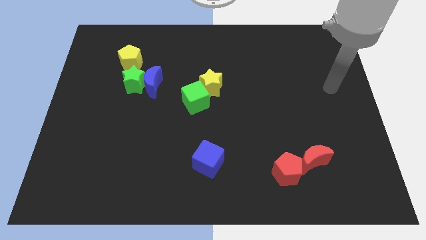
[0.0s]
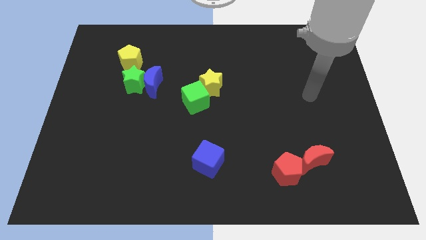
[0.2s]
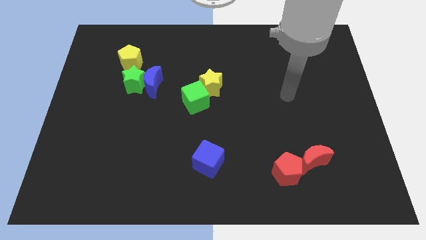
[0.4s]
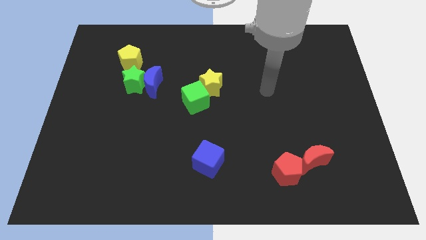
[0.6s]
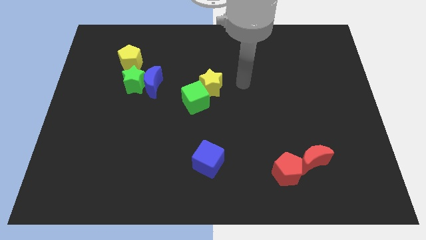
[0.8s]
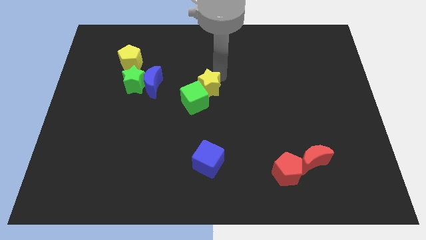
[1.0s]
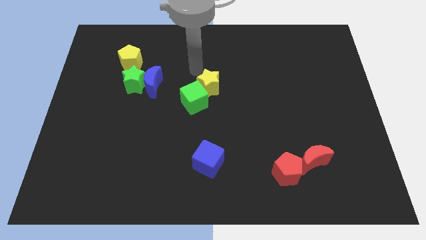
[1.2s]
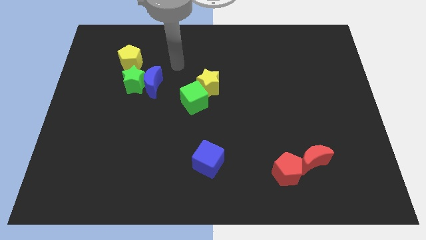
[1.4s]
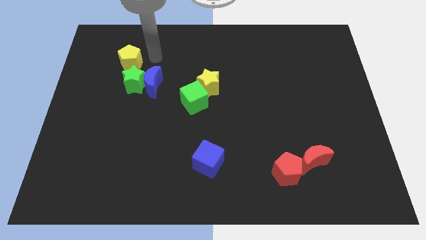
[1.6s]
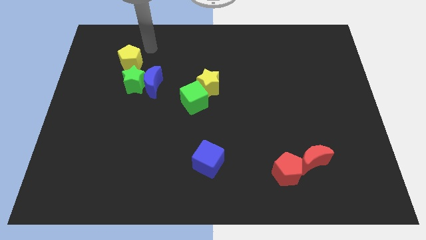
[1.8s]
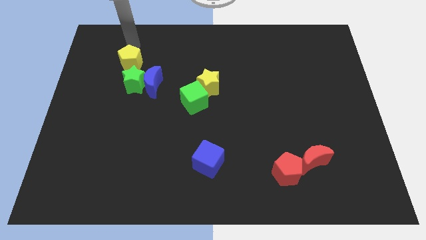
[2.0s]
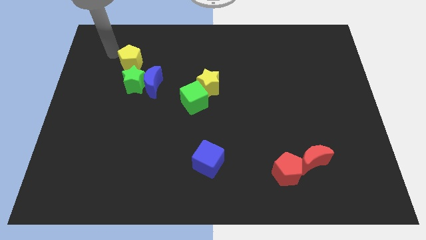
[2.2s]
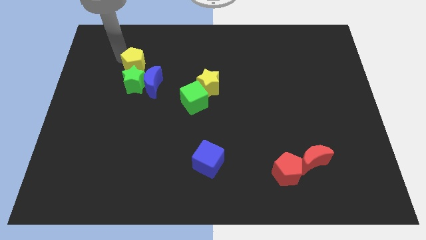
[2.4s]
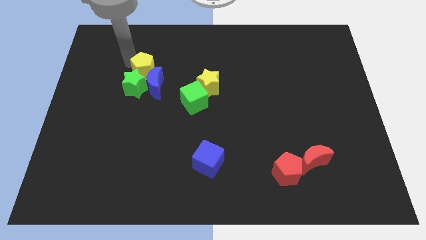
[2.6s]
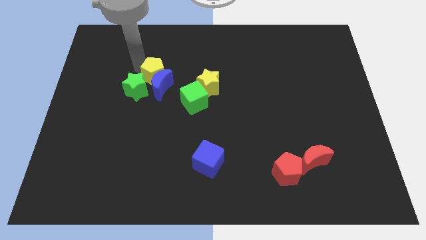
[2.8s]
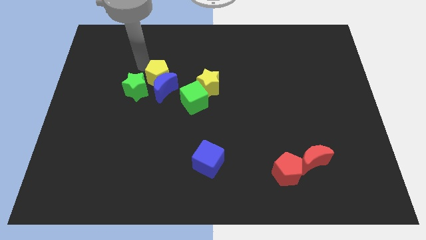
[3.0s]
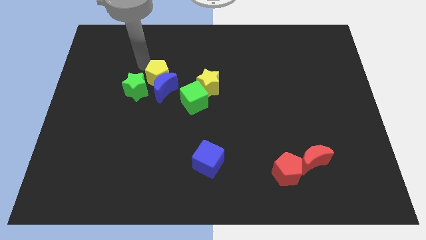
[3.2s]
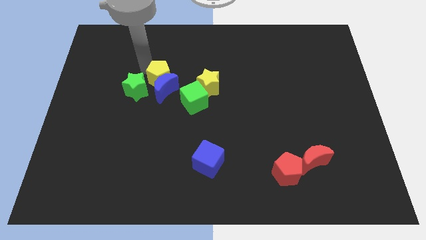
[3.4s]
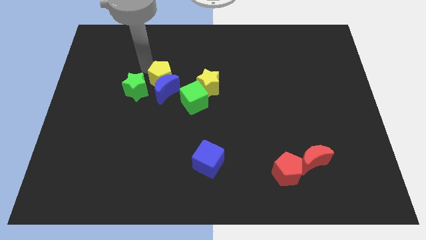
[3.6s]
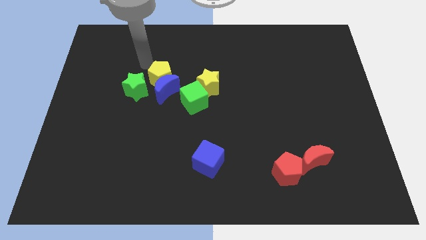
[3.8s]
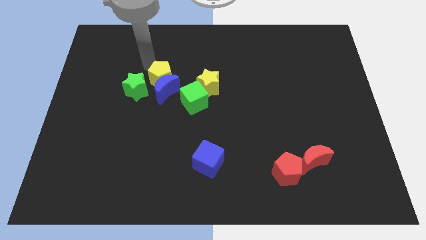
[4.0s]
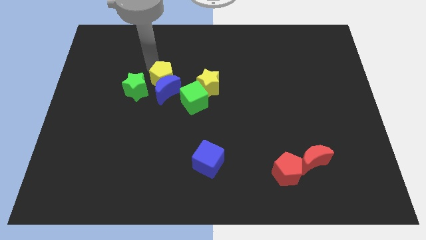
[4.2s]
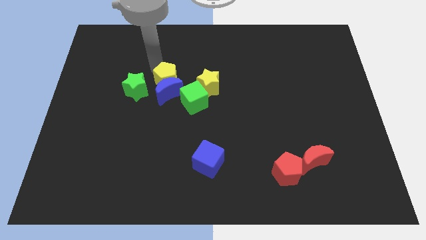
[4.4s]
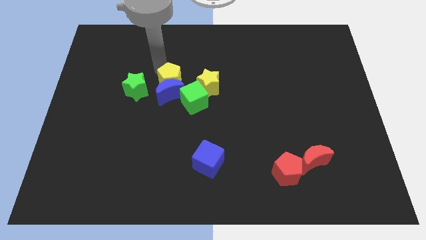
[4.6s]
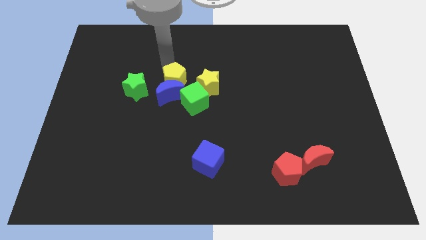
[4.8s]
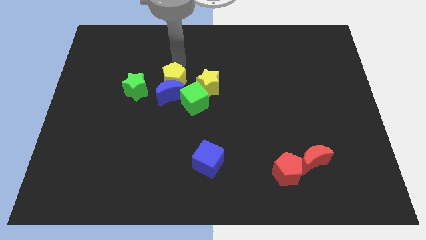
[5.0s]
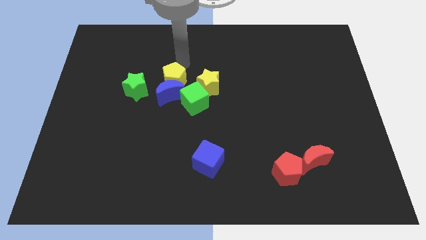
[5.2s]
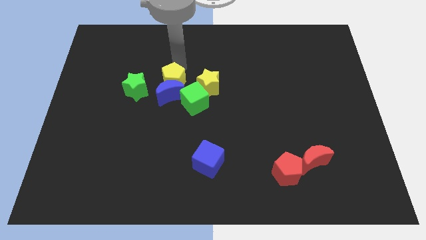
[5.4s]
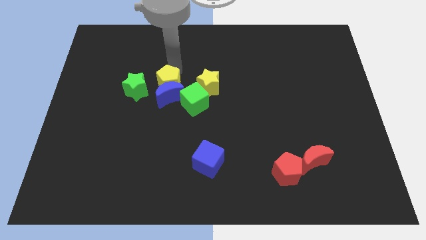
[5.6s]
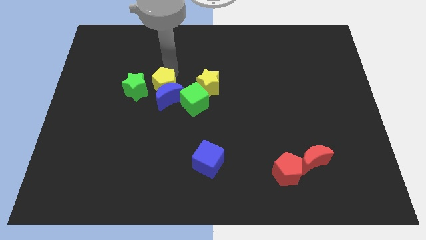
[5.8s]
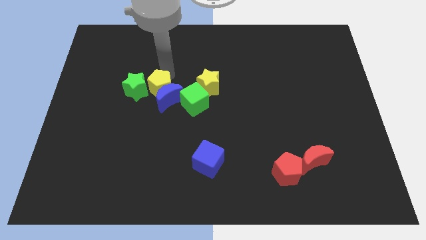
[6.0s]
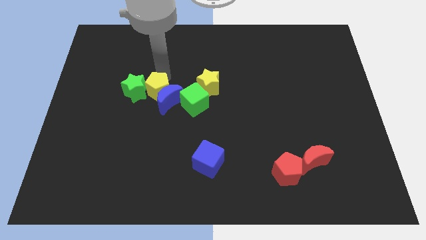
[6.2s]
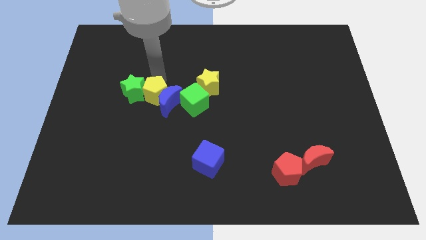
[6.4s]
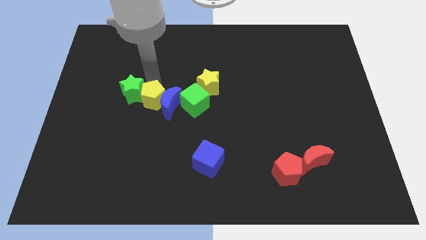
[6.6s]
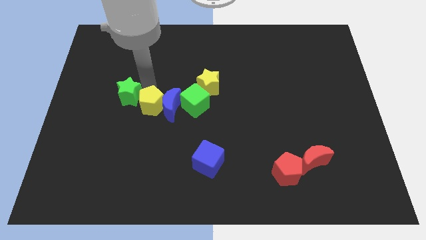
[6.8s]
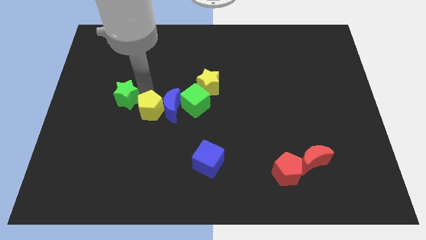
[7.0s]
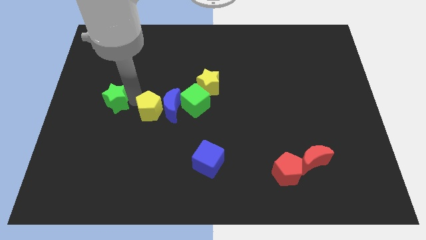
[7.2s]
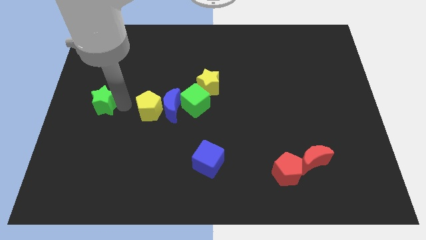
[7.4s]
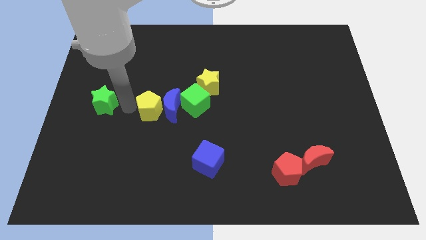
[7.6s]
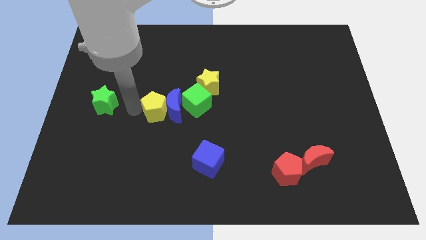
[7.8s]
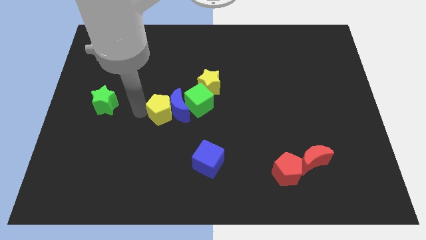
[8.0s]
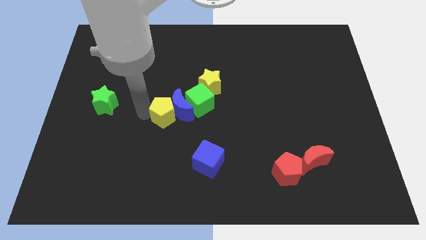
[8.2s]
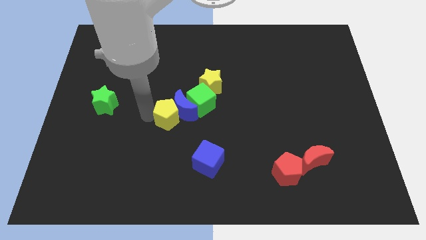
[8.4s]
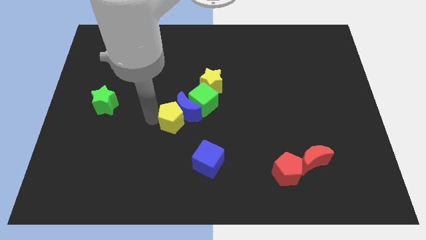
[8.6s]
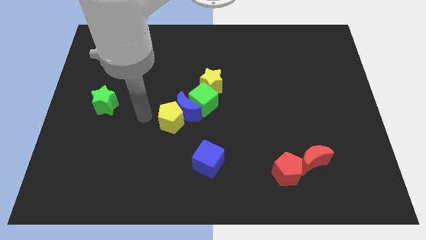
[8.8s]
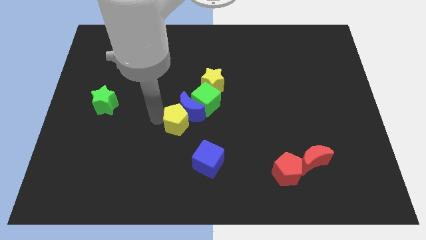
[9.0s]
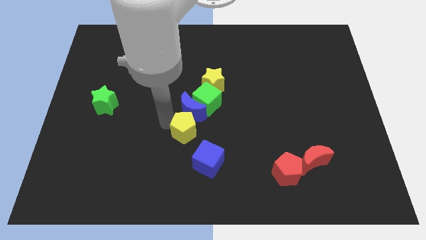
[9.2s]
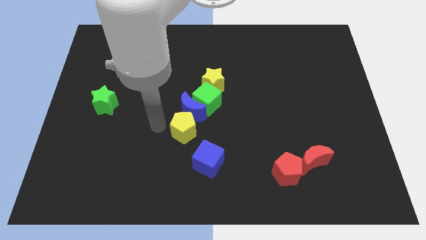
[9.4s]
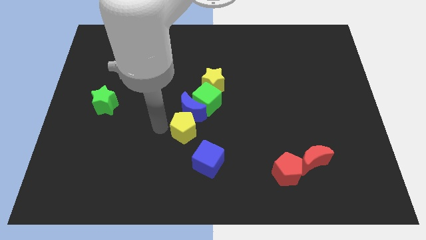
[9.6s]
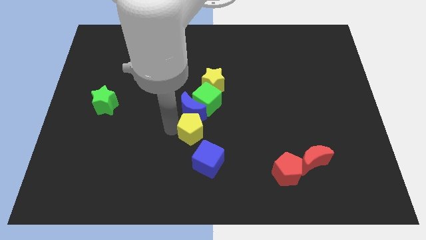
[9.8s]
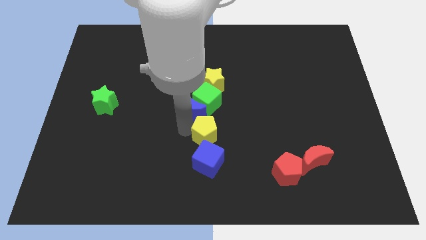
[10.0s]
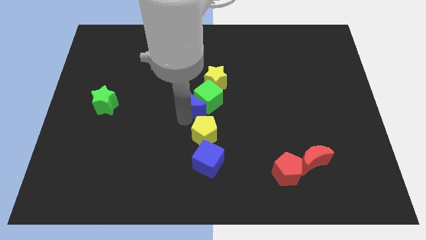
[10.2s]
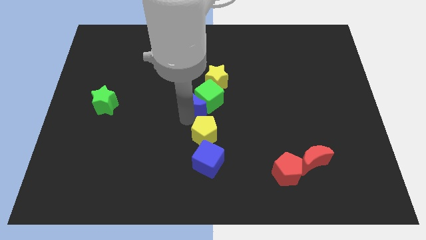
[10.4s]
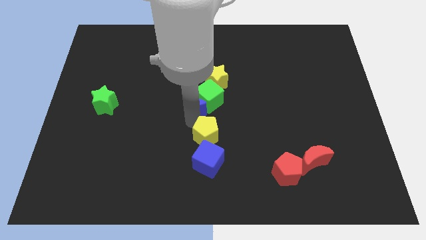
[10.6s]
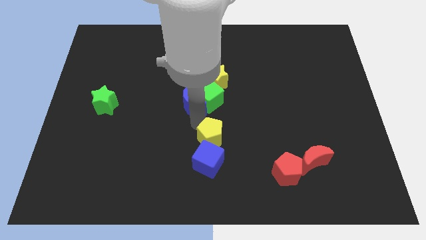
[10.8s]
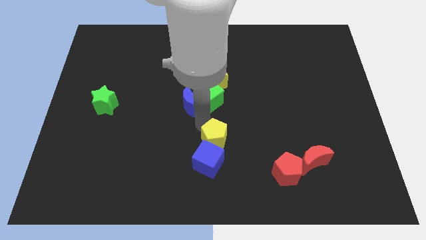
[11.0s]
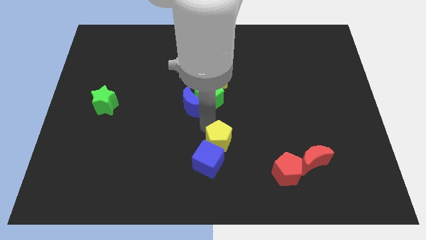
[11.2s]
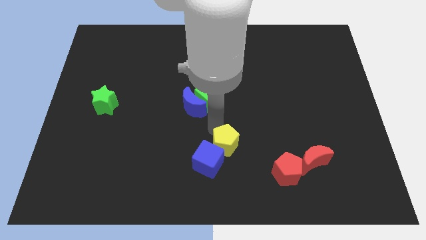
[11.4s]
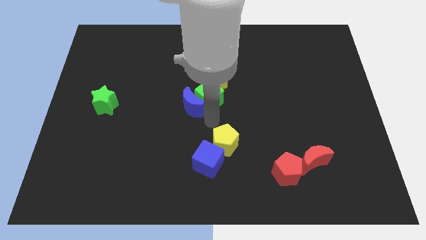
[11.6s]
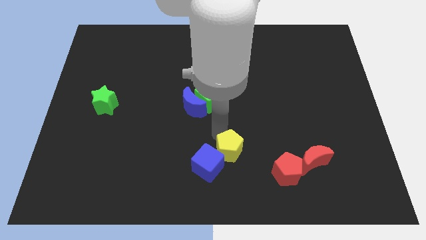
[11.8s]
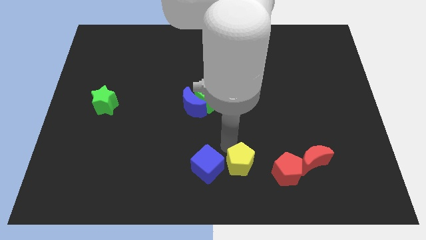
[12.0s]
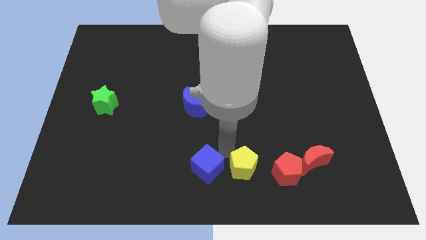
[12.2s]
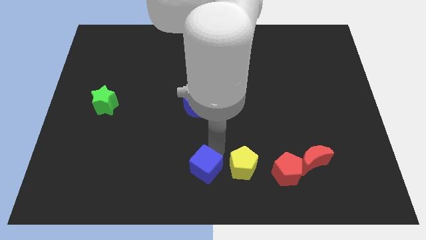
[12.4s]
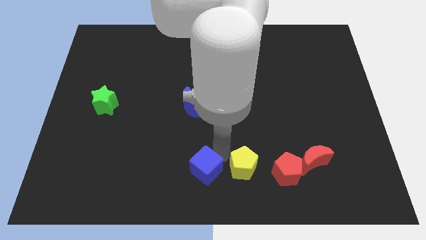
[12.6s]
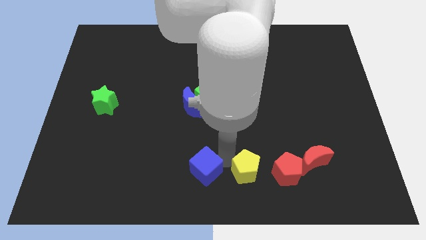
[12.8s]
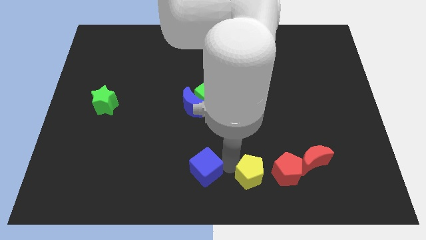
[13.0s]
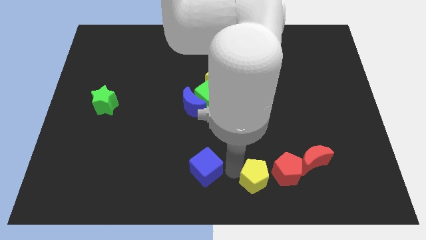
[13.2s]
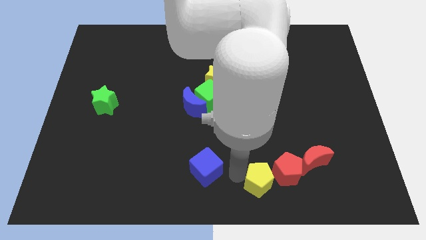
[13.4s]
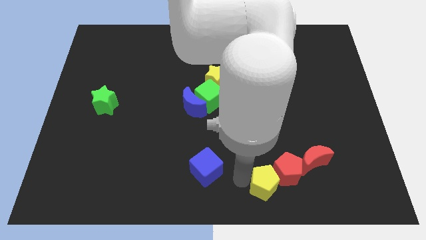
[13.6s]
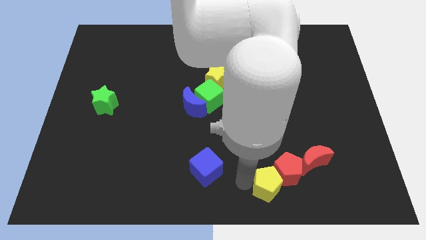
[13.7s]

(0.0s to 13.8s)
move the yellow pentagon to the bottom left of the red moon
